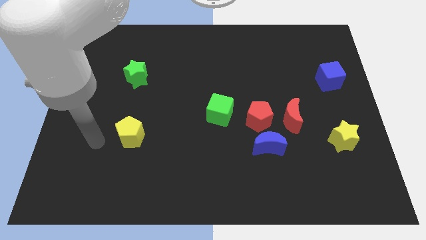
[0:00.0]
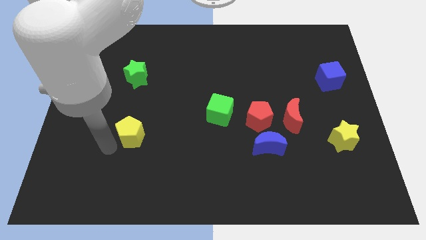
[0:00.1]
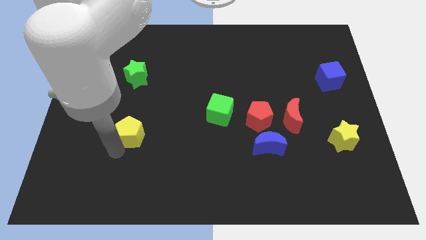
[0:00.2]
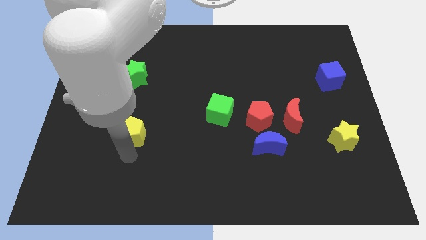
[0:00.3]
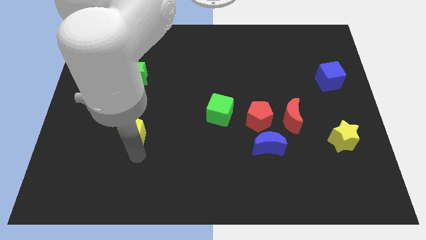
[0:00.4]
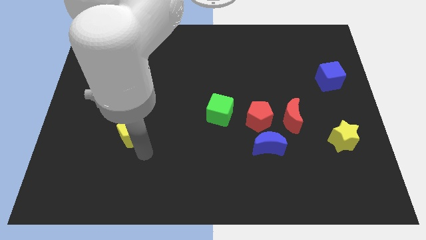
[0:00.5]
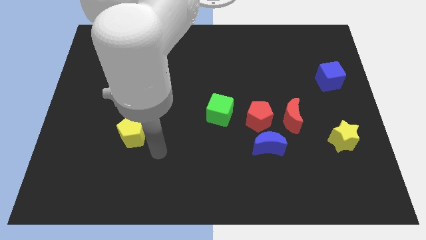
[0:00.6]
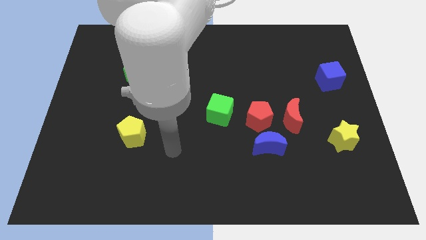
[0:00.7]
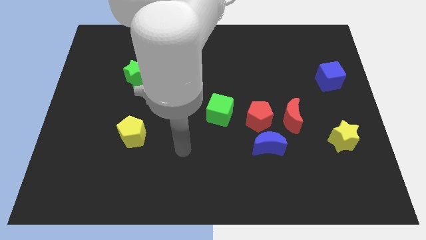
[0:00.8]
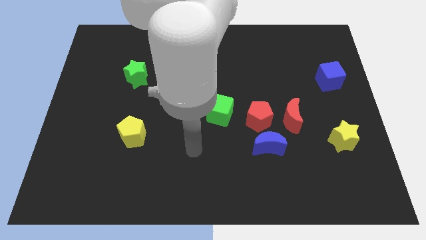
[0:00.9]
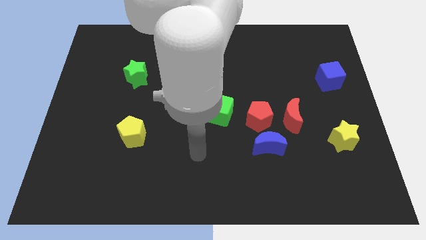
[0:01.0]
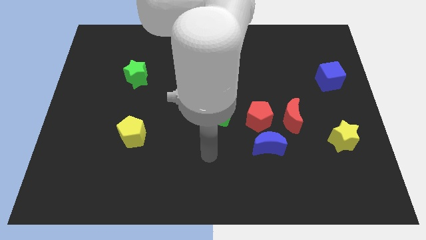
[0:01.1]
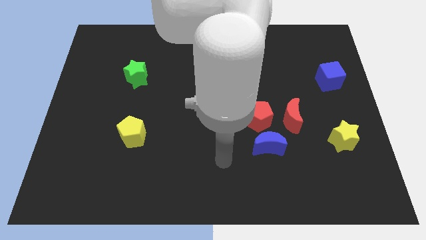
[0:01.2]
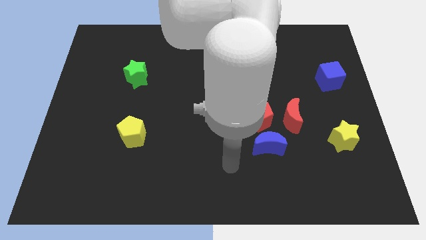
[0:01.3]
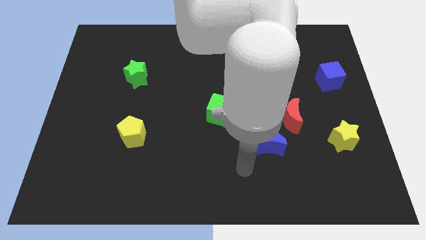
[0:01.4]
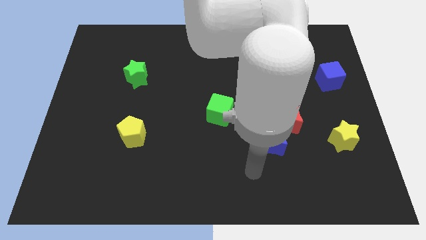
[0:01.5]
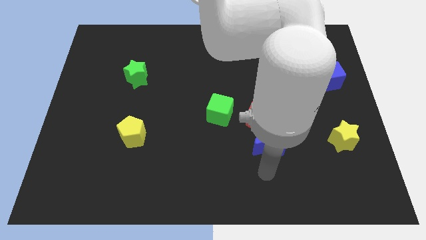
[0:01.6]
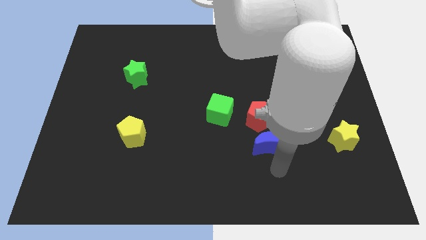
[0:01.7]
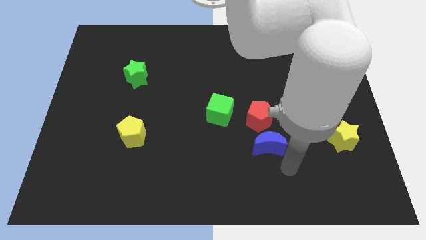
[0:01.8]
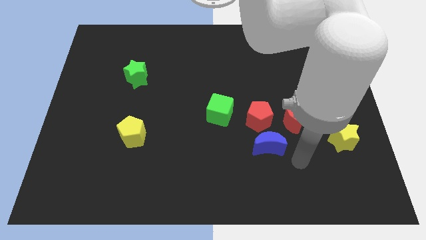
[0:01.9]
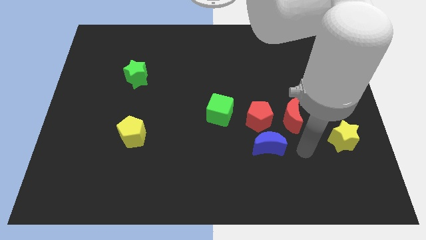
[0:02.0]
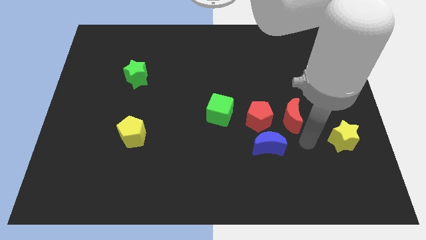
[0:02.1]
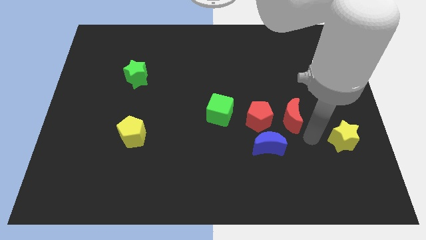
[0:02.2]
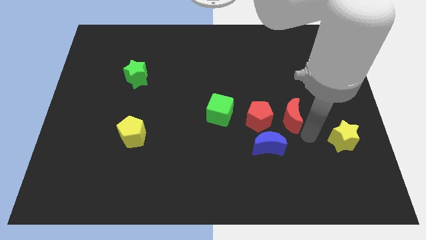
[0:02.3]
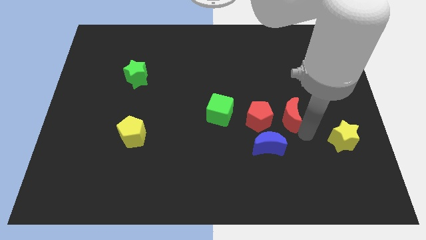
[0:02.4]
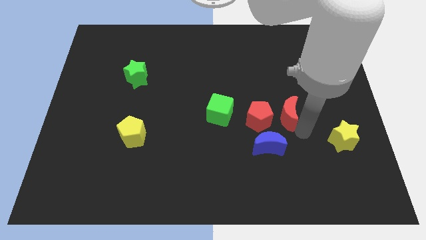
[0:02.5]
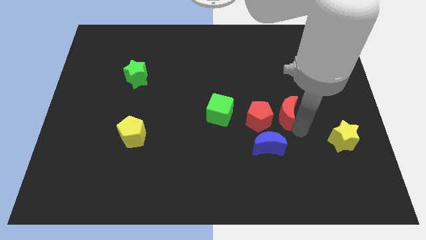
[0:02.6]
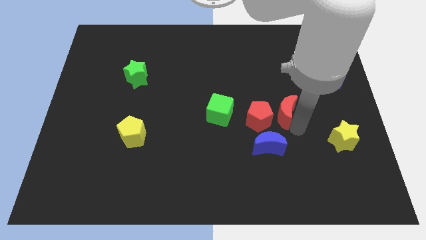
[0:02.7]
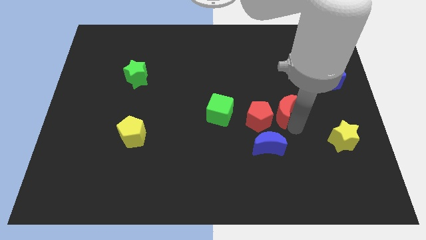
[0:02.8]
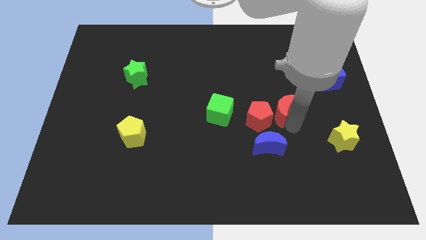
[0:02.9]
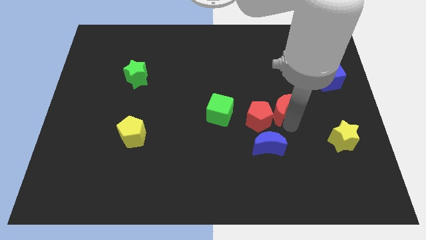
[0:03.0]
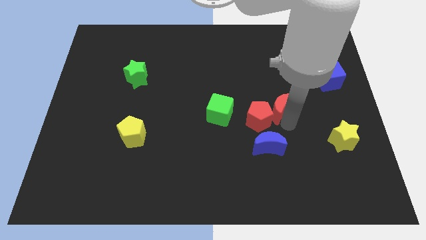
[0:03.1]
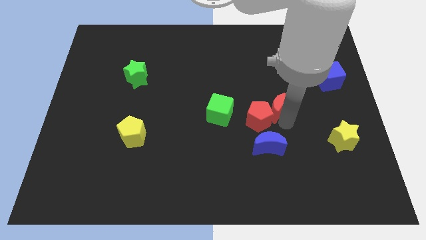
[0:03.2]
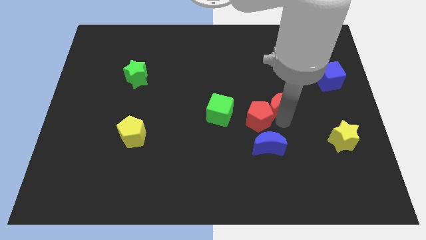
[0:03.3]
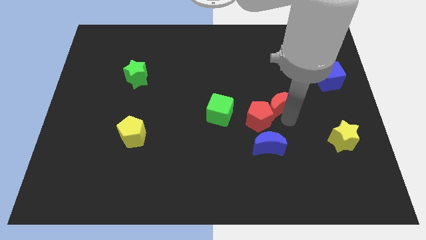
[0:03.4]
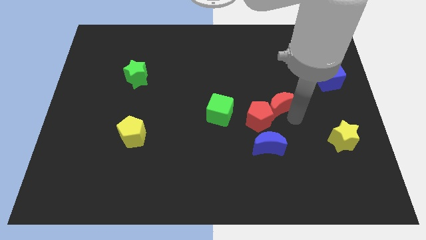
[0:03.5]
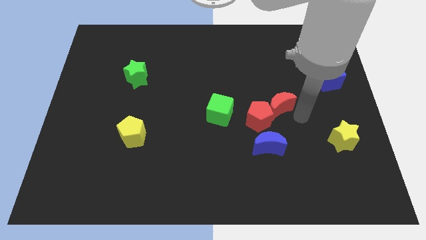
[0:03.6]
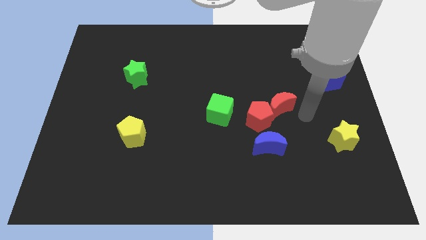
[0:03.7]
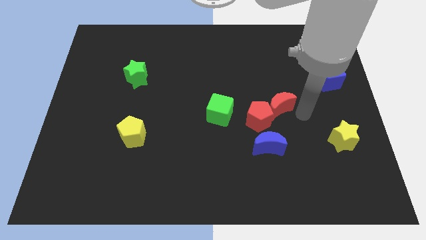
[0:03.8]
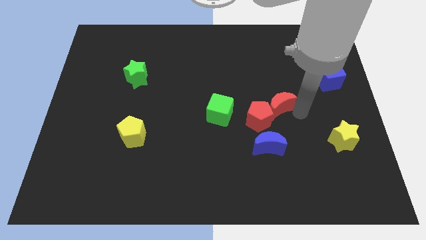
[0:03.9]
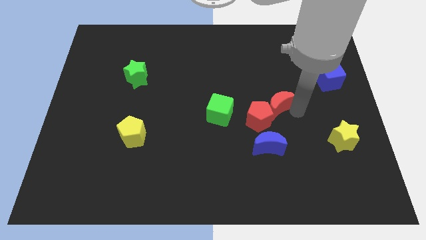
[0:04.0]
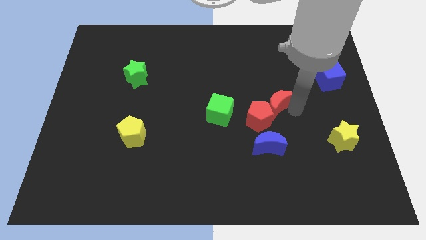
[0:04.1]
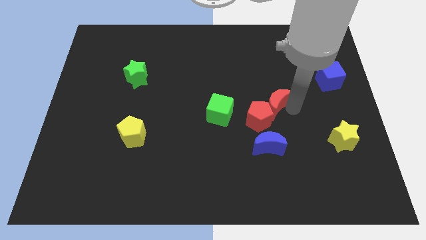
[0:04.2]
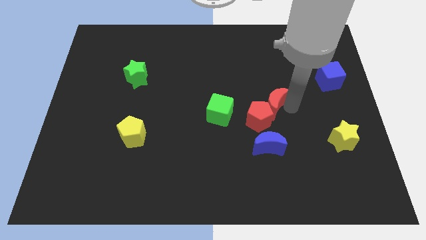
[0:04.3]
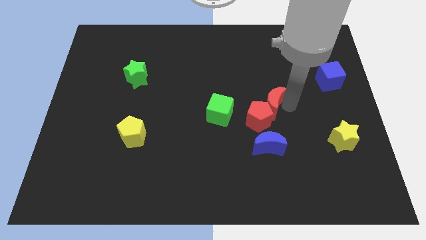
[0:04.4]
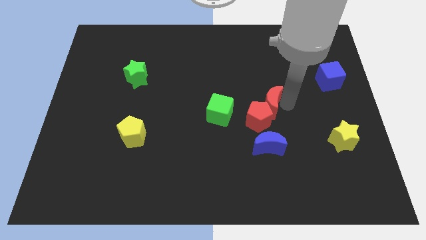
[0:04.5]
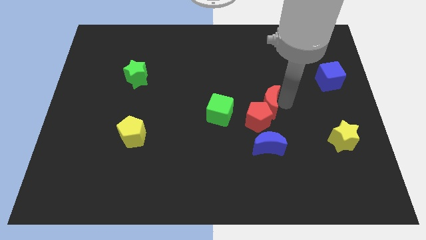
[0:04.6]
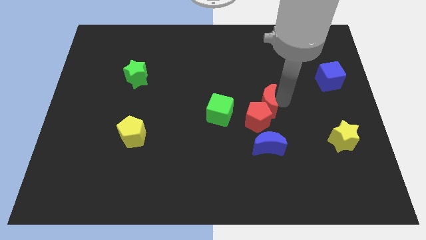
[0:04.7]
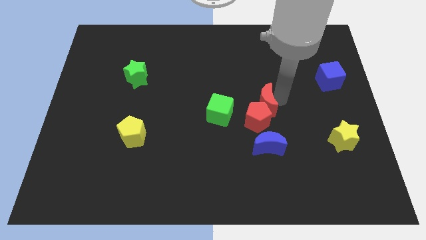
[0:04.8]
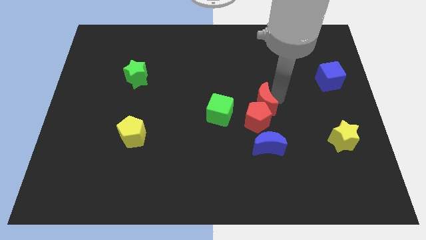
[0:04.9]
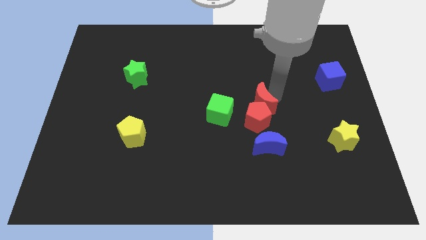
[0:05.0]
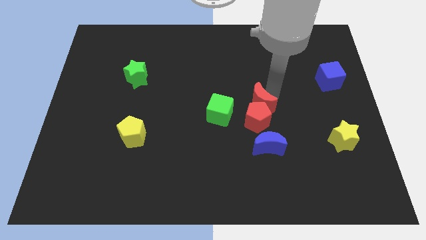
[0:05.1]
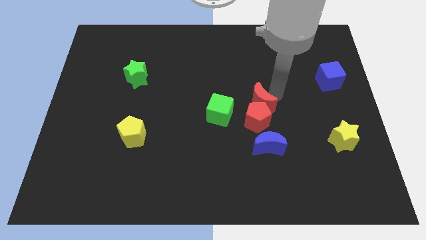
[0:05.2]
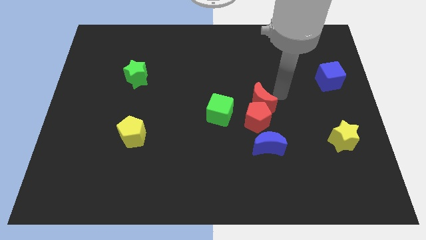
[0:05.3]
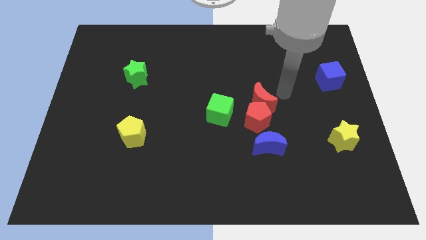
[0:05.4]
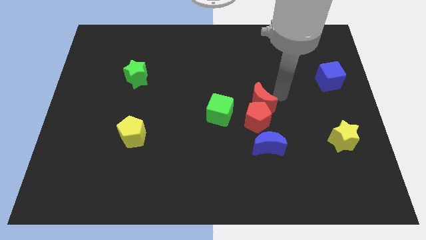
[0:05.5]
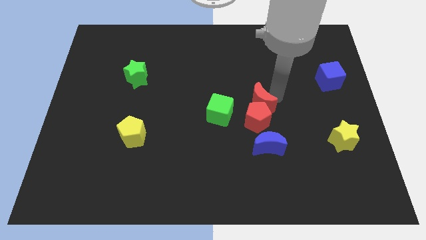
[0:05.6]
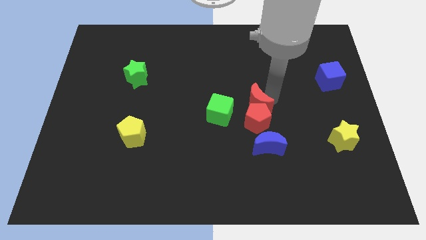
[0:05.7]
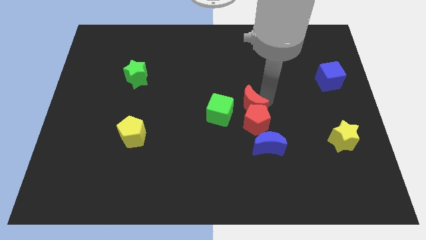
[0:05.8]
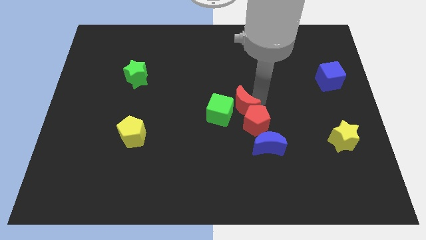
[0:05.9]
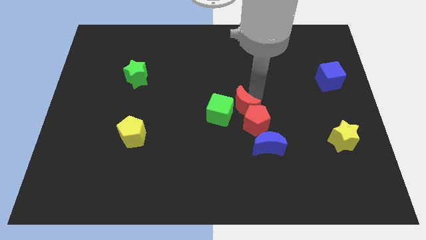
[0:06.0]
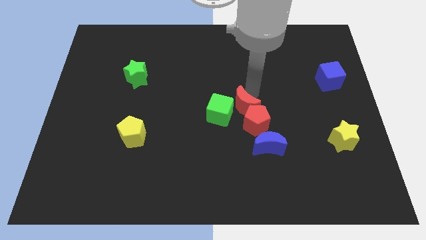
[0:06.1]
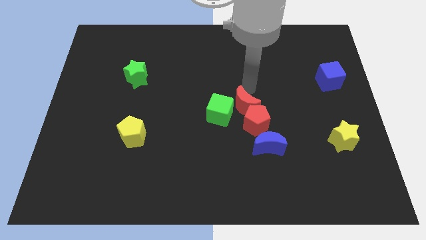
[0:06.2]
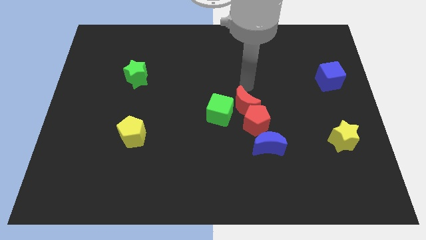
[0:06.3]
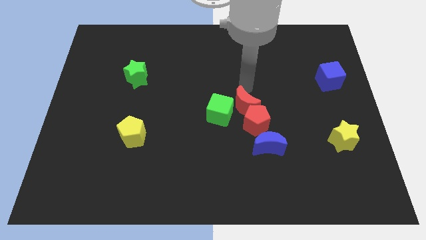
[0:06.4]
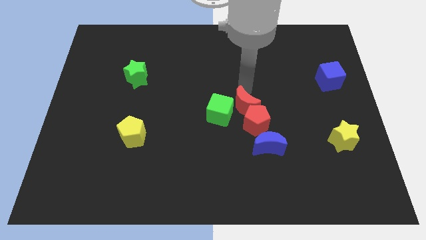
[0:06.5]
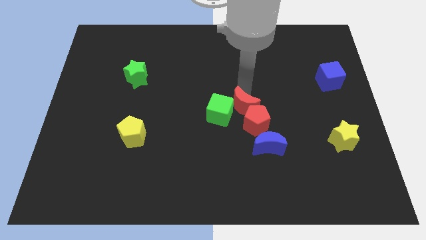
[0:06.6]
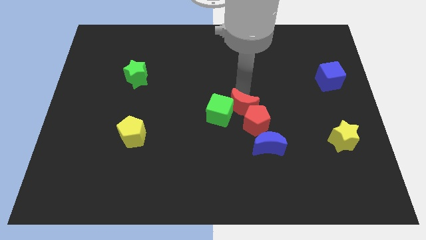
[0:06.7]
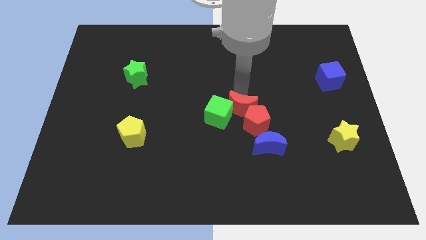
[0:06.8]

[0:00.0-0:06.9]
slide the red moon diagonally up and to the left of the blue moon
